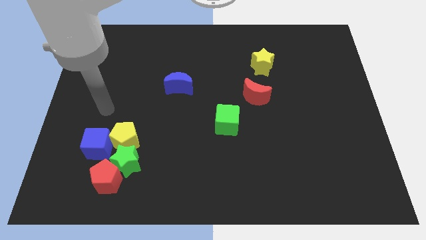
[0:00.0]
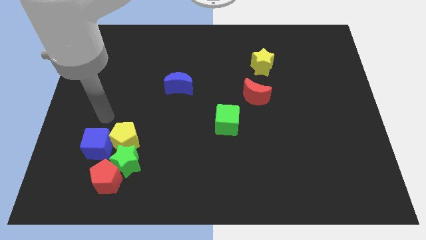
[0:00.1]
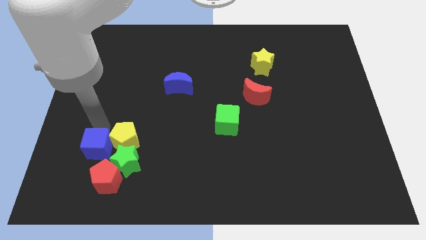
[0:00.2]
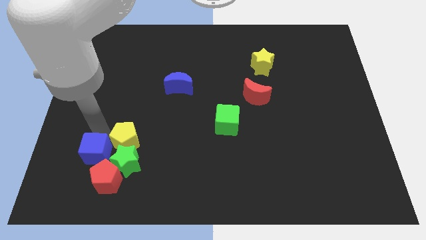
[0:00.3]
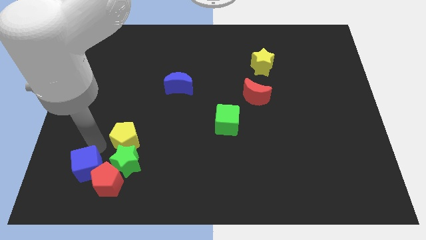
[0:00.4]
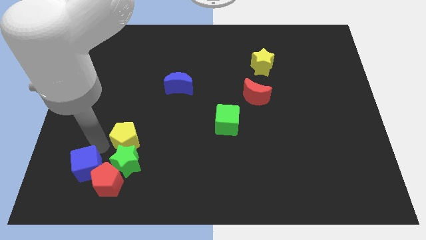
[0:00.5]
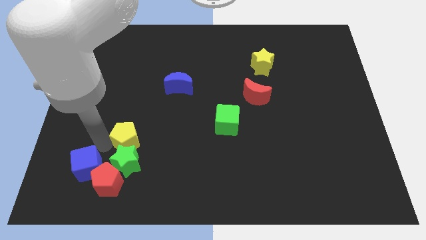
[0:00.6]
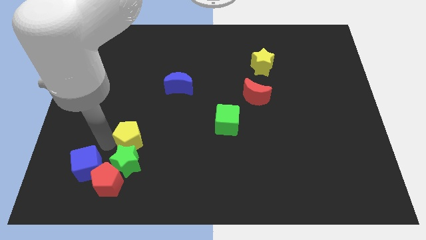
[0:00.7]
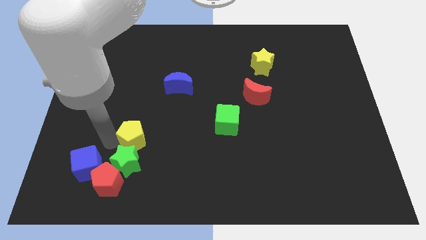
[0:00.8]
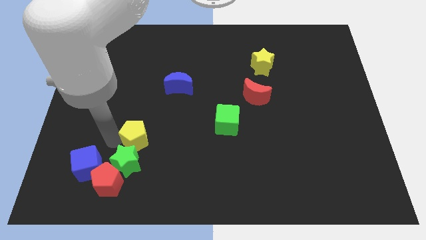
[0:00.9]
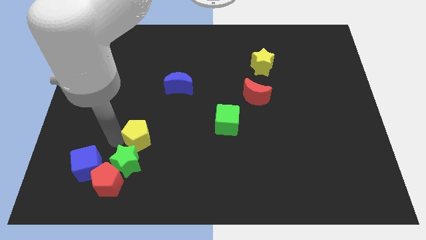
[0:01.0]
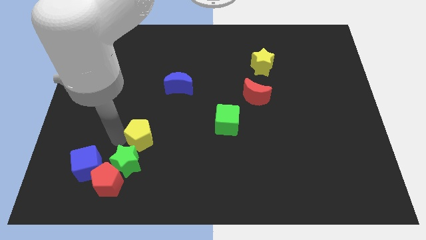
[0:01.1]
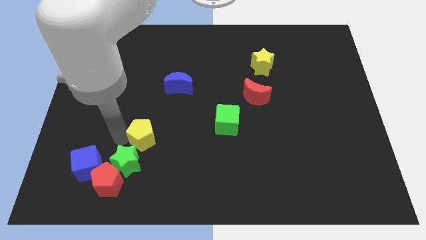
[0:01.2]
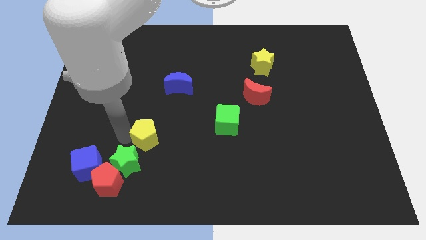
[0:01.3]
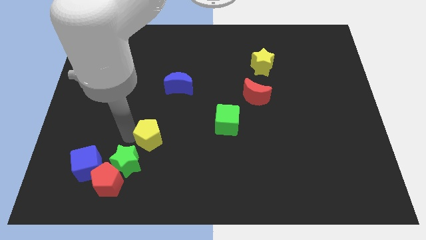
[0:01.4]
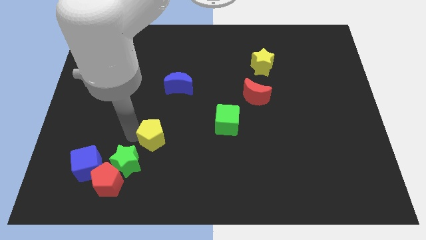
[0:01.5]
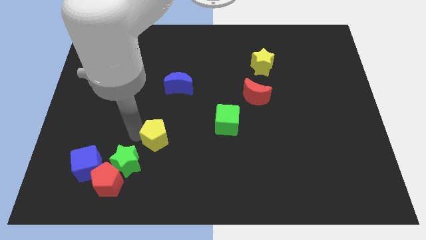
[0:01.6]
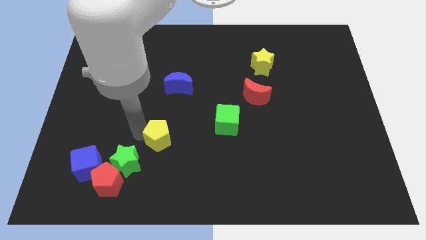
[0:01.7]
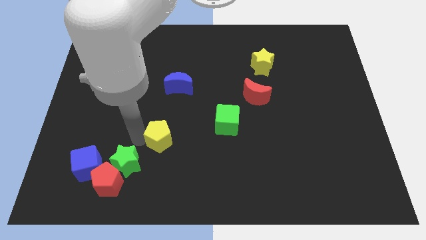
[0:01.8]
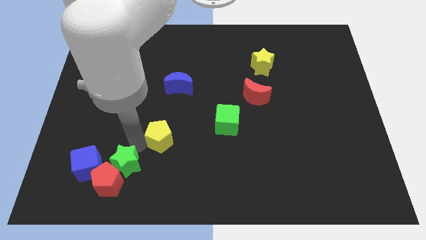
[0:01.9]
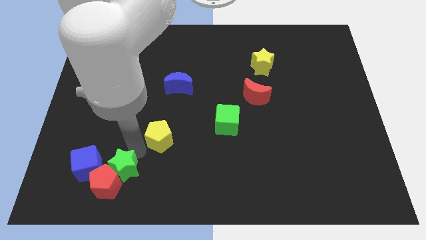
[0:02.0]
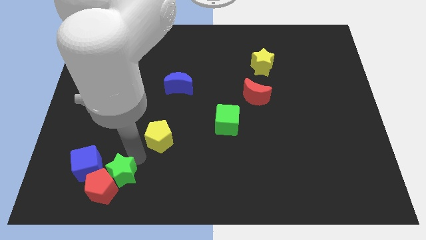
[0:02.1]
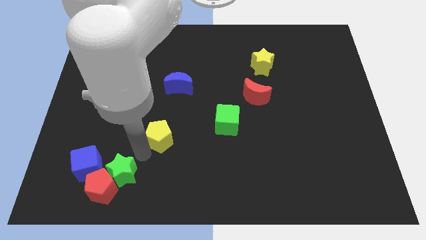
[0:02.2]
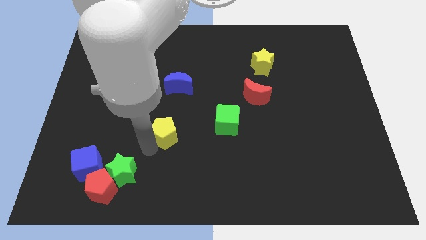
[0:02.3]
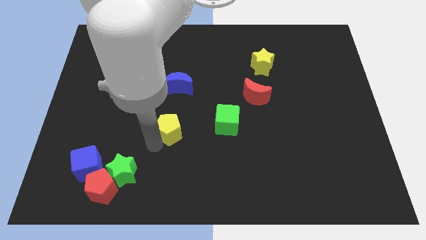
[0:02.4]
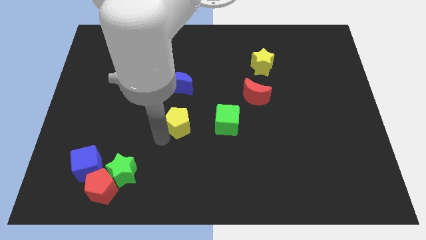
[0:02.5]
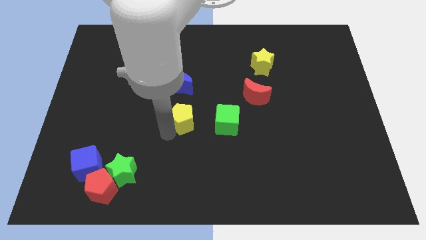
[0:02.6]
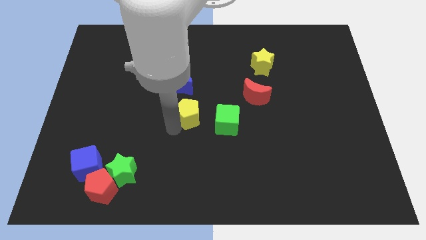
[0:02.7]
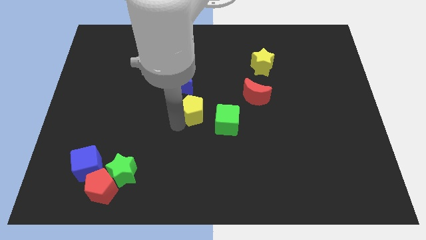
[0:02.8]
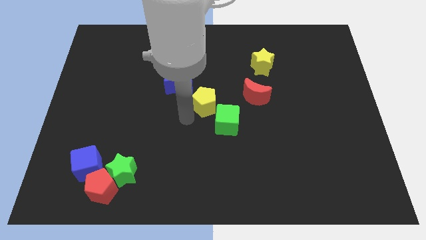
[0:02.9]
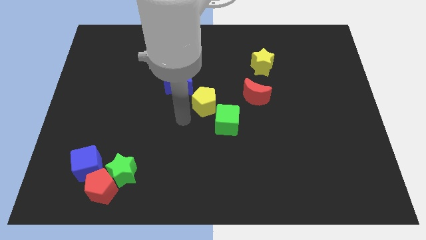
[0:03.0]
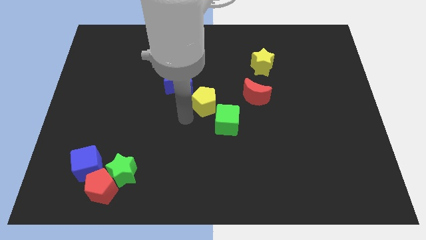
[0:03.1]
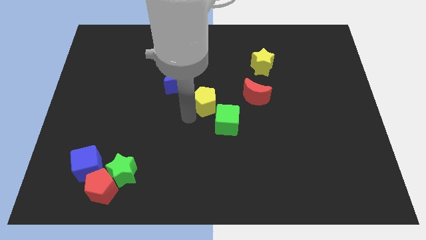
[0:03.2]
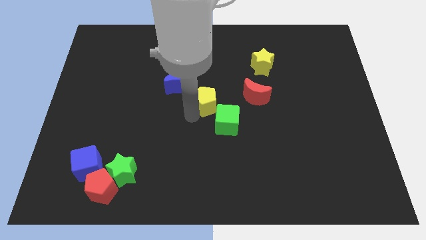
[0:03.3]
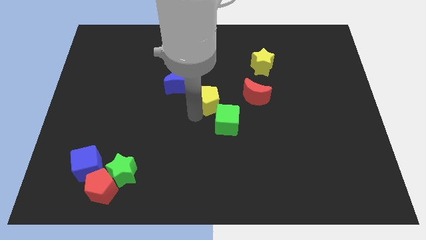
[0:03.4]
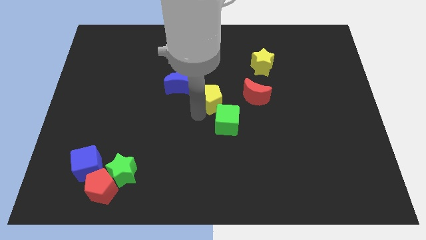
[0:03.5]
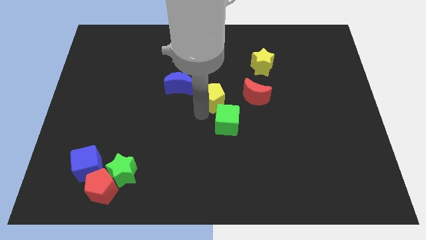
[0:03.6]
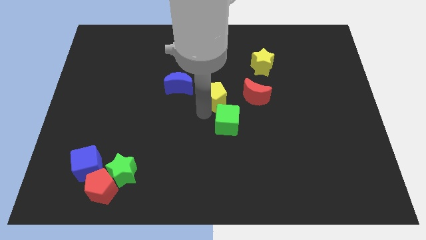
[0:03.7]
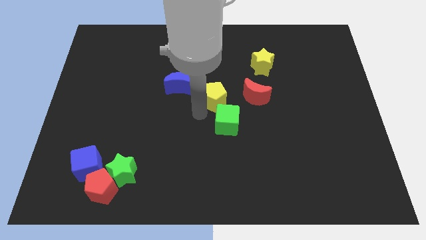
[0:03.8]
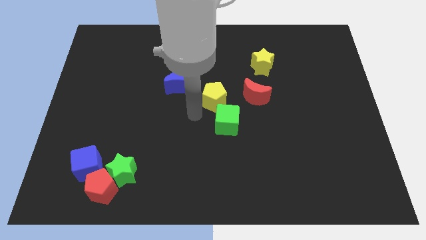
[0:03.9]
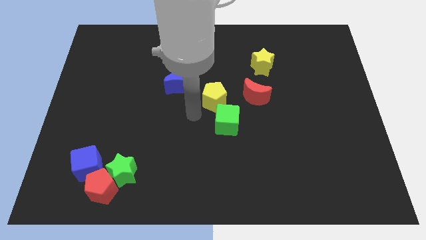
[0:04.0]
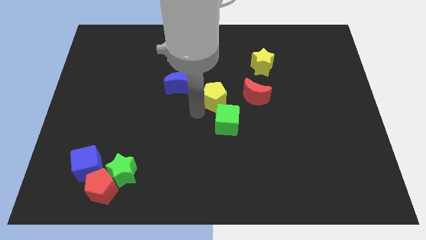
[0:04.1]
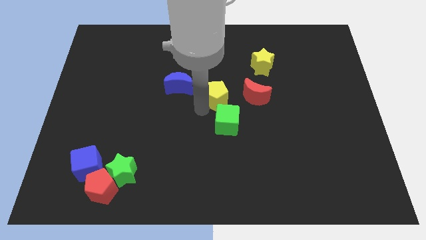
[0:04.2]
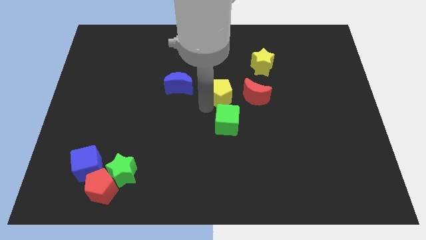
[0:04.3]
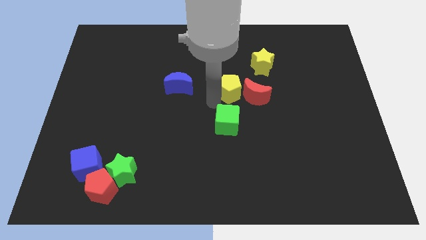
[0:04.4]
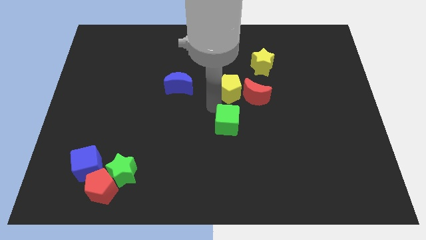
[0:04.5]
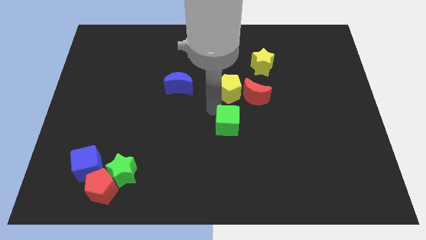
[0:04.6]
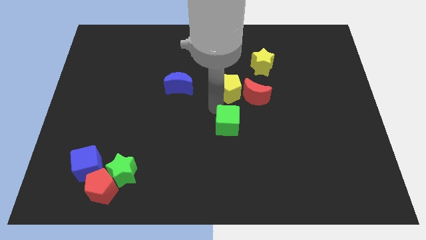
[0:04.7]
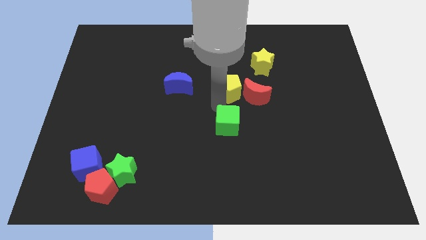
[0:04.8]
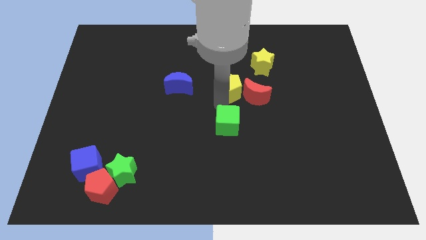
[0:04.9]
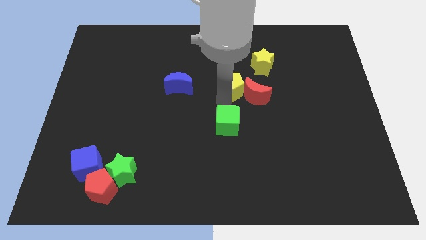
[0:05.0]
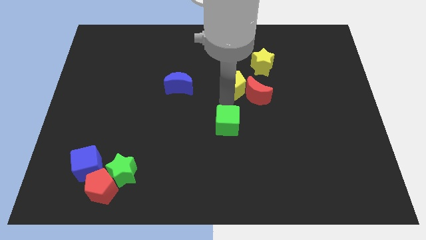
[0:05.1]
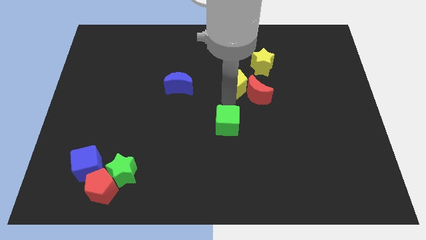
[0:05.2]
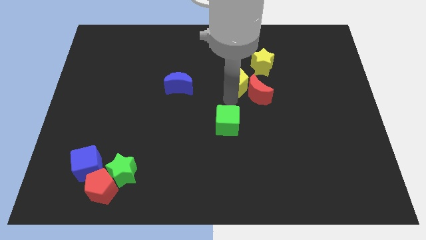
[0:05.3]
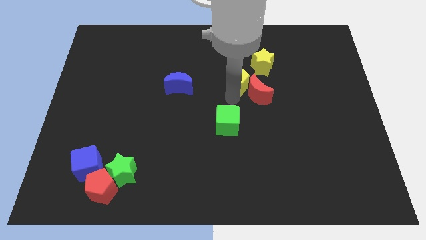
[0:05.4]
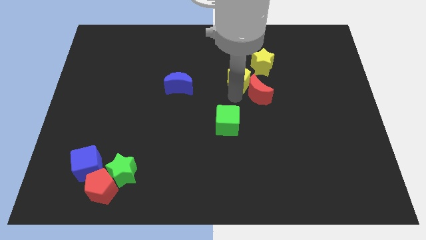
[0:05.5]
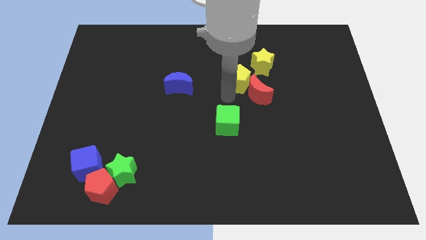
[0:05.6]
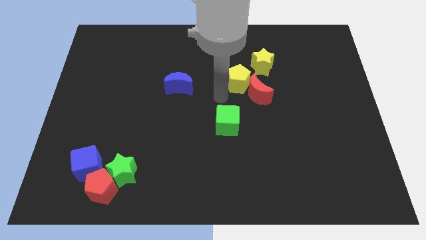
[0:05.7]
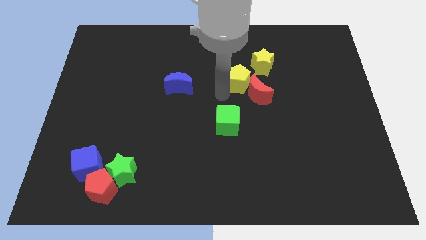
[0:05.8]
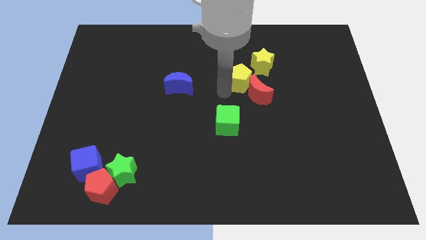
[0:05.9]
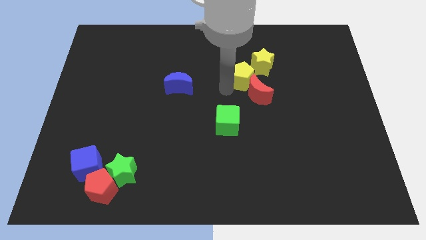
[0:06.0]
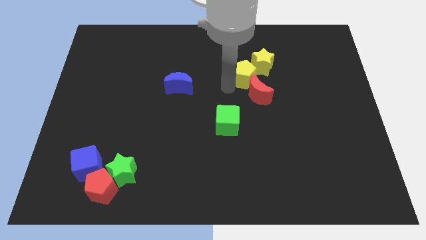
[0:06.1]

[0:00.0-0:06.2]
put the yellow pentagon close to the yellow star

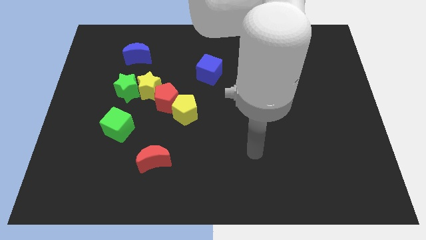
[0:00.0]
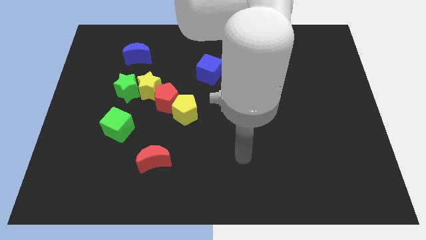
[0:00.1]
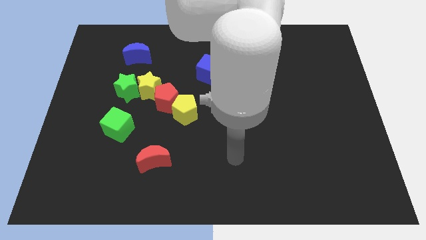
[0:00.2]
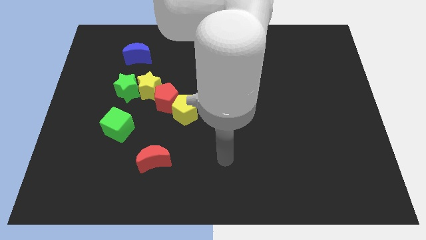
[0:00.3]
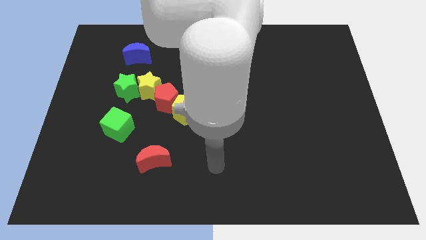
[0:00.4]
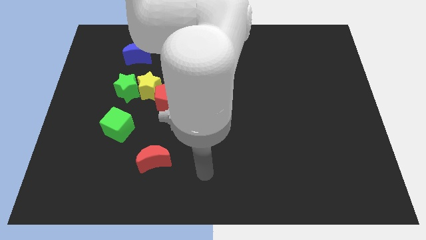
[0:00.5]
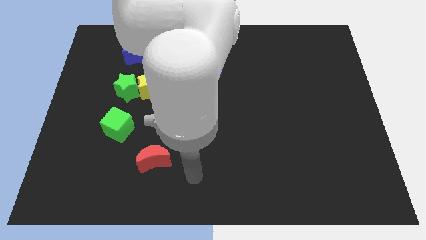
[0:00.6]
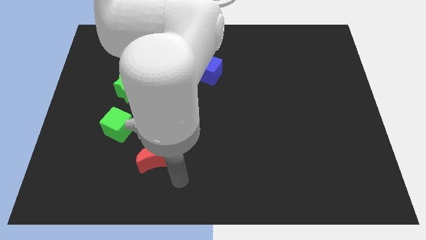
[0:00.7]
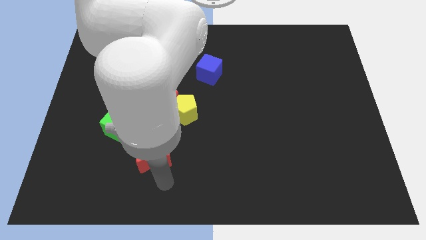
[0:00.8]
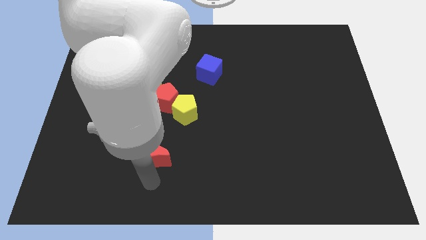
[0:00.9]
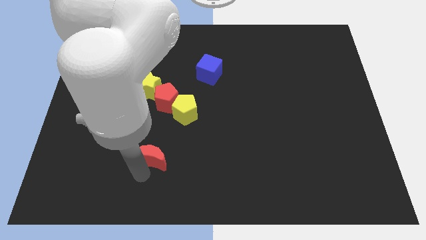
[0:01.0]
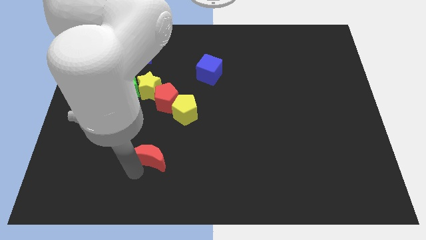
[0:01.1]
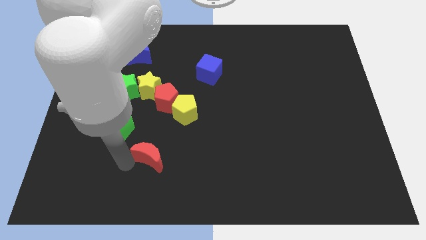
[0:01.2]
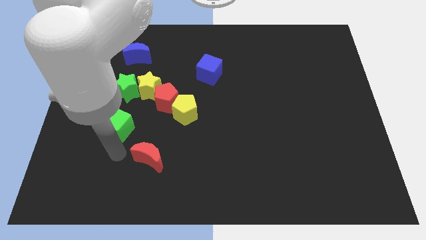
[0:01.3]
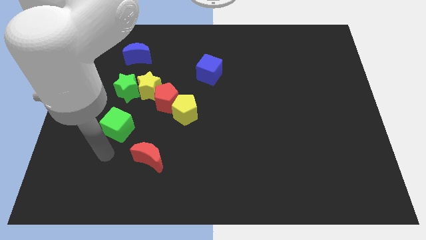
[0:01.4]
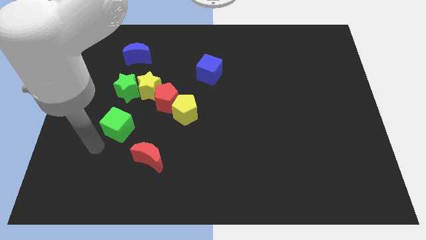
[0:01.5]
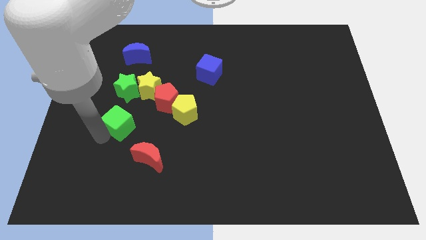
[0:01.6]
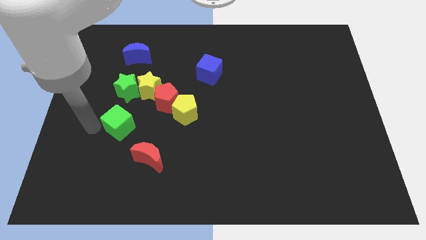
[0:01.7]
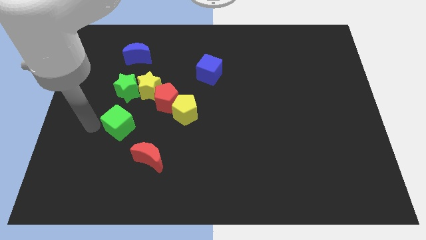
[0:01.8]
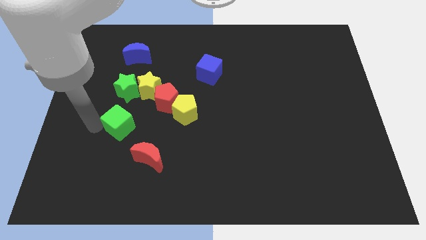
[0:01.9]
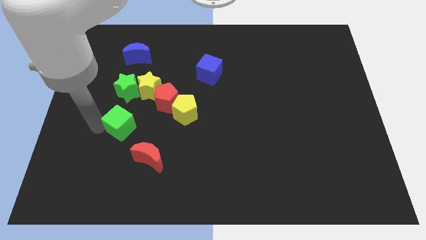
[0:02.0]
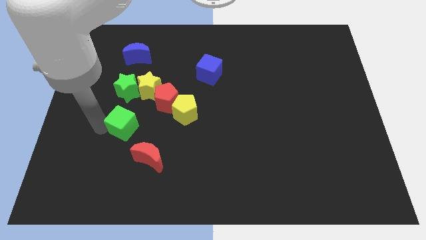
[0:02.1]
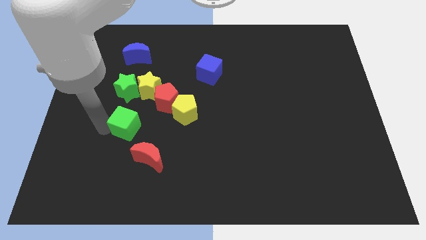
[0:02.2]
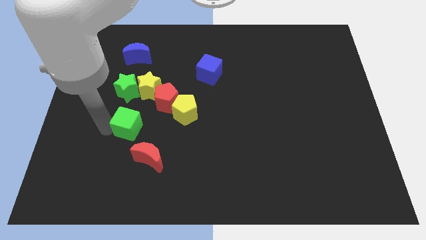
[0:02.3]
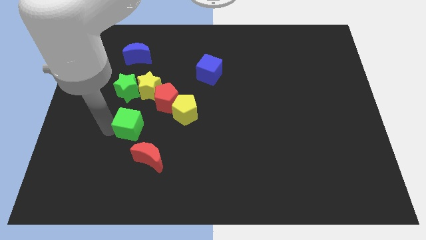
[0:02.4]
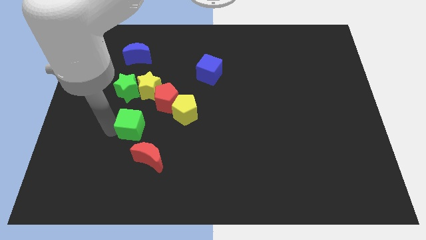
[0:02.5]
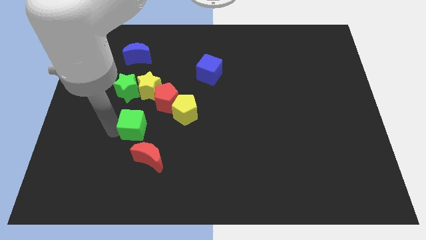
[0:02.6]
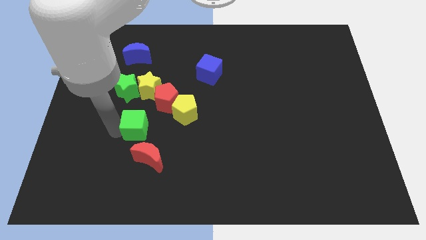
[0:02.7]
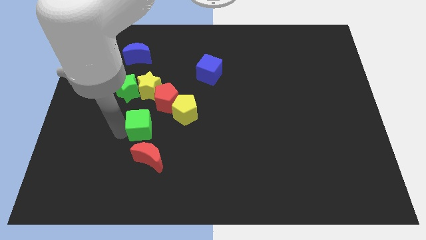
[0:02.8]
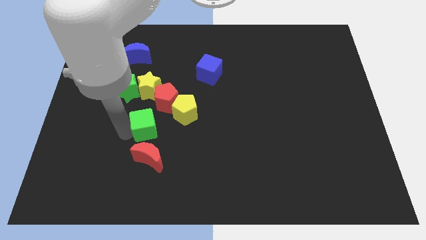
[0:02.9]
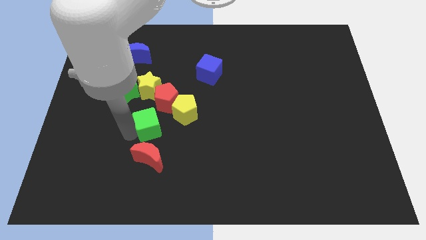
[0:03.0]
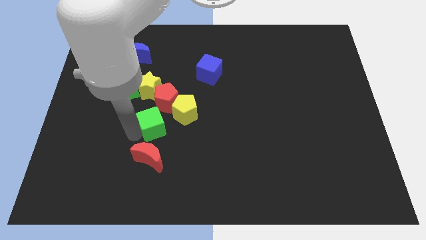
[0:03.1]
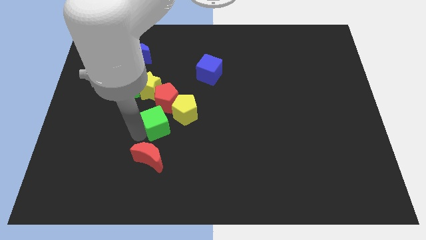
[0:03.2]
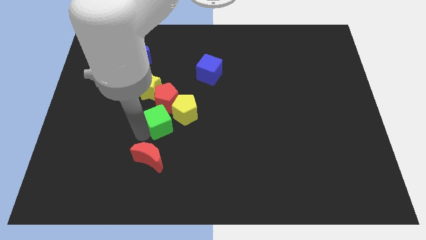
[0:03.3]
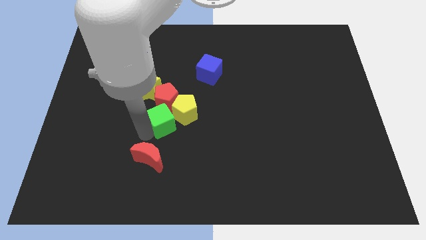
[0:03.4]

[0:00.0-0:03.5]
move the green cube next to the yellow pentagon
